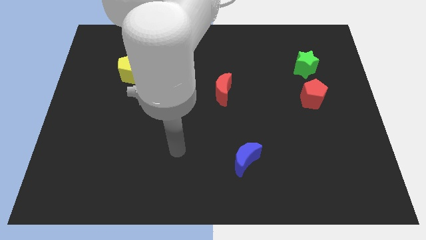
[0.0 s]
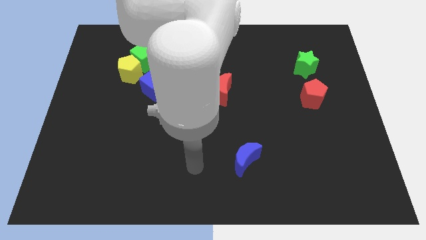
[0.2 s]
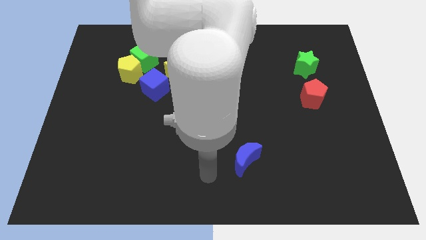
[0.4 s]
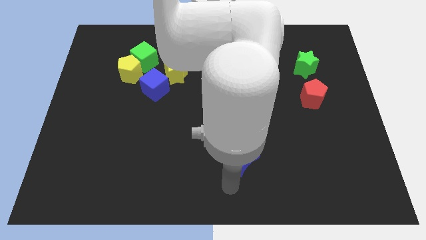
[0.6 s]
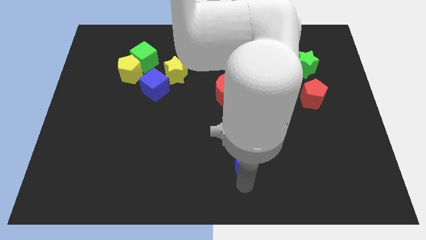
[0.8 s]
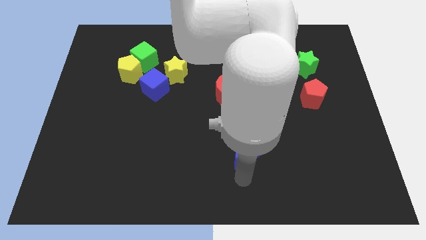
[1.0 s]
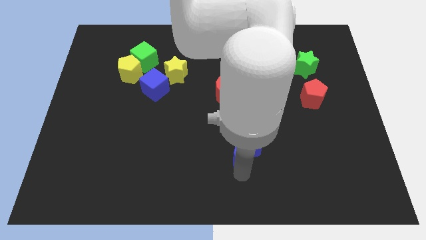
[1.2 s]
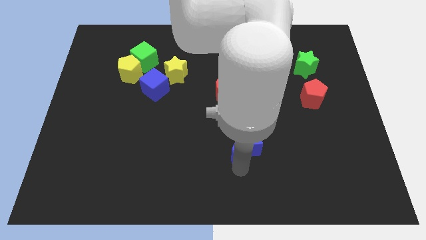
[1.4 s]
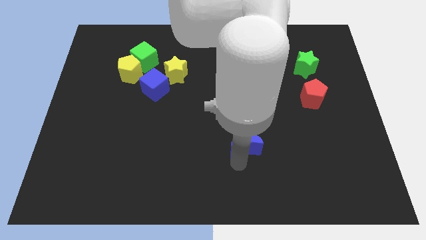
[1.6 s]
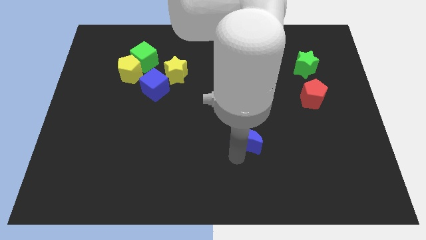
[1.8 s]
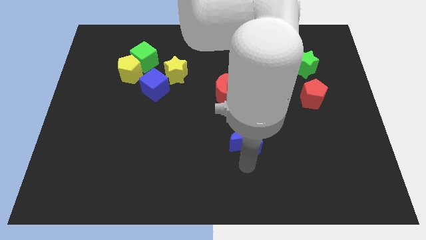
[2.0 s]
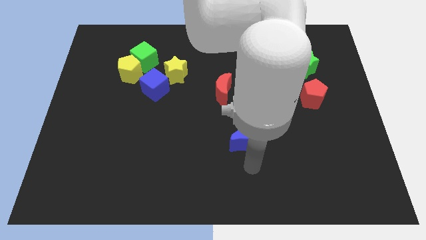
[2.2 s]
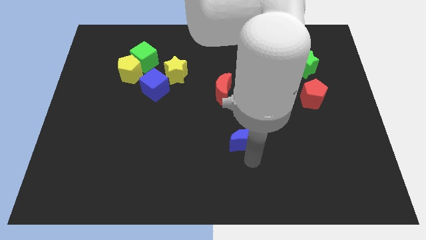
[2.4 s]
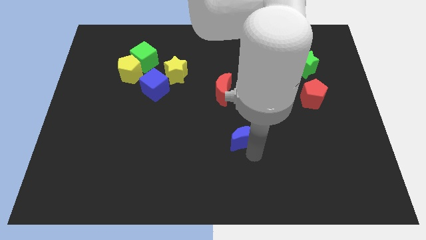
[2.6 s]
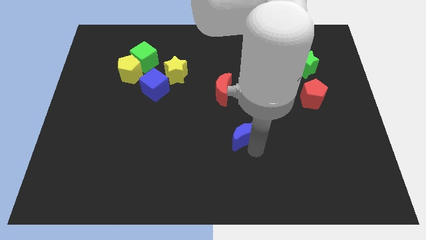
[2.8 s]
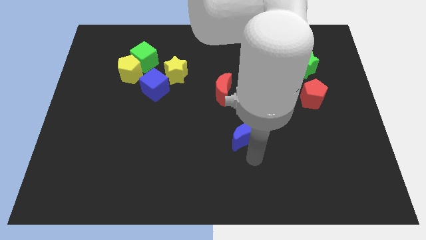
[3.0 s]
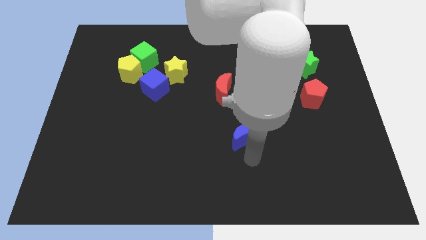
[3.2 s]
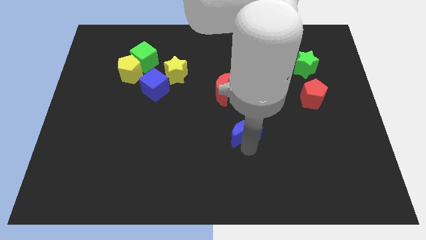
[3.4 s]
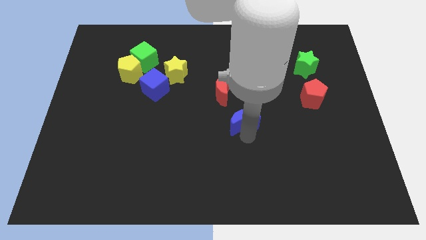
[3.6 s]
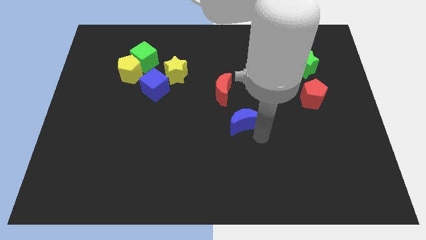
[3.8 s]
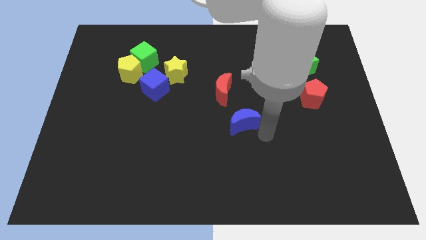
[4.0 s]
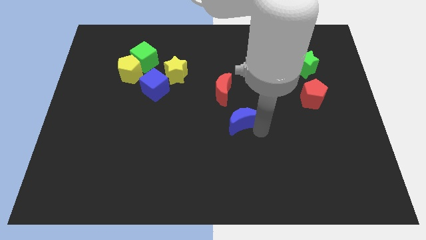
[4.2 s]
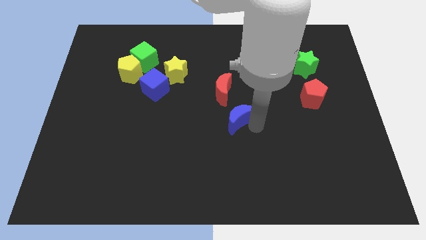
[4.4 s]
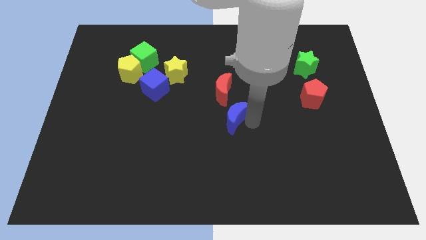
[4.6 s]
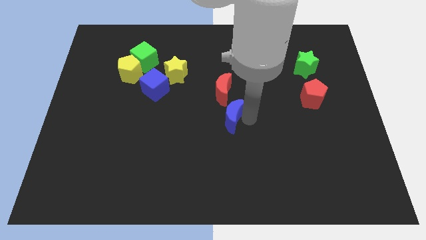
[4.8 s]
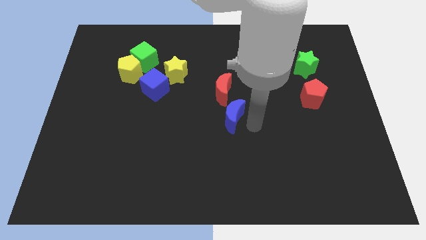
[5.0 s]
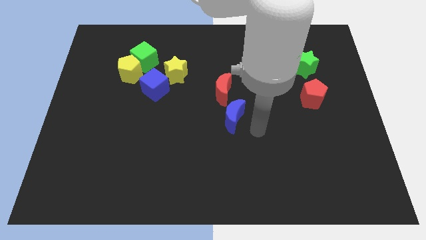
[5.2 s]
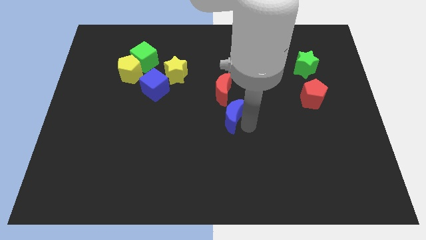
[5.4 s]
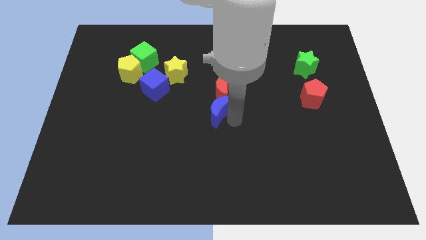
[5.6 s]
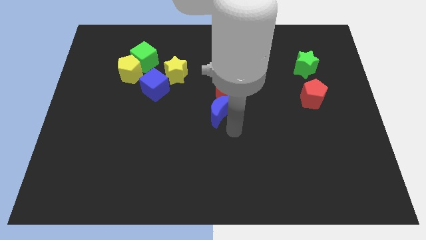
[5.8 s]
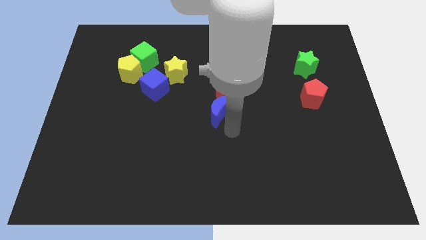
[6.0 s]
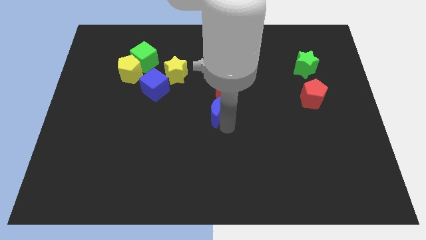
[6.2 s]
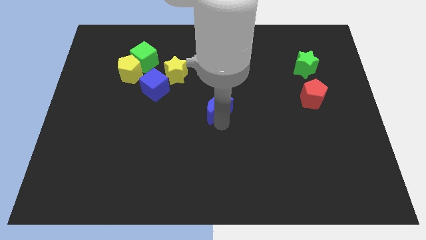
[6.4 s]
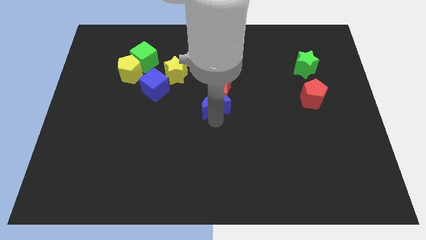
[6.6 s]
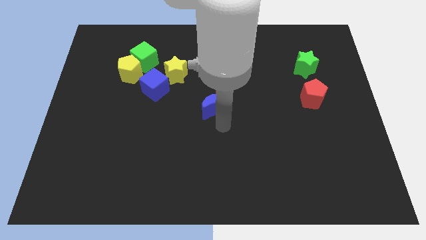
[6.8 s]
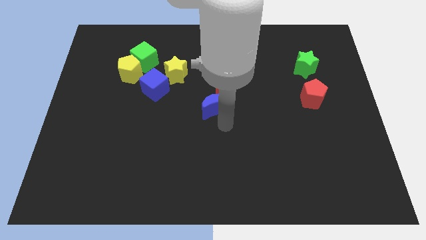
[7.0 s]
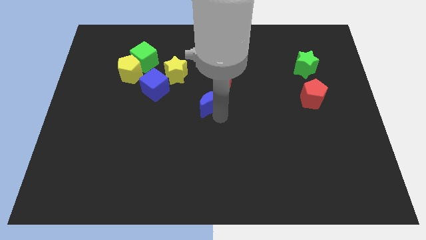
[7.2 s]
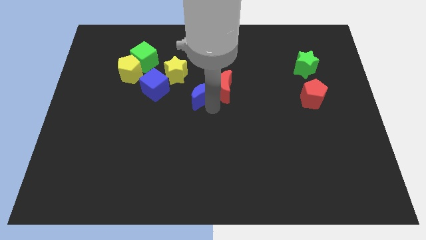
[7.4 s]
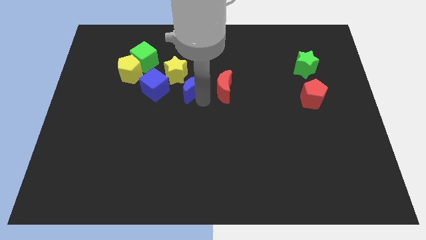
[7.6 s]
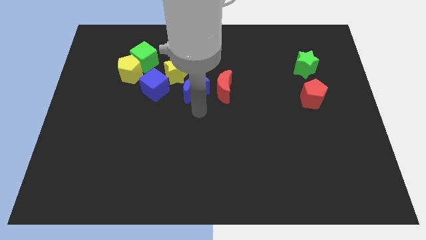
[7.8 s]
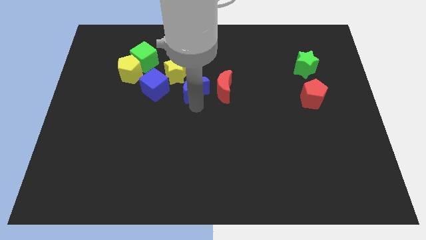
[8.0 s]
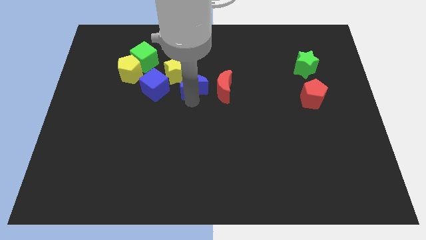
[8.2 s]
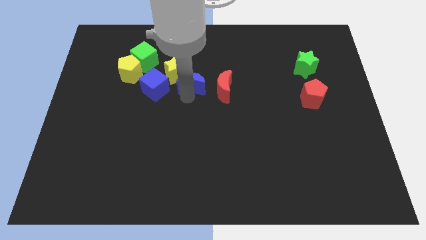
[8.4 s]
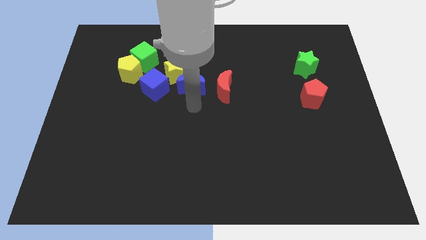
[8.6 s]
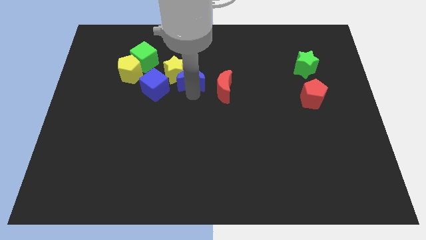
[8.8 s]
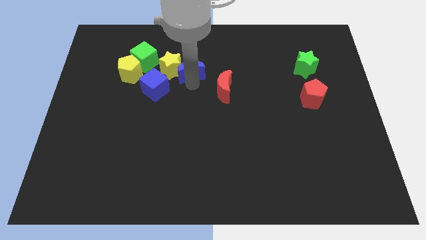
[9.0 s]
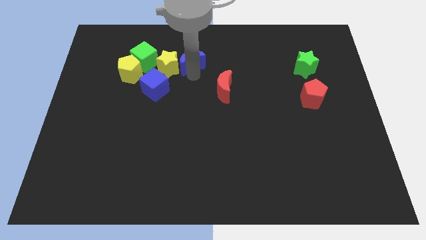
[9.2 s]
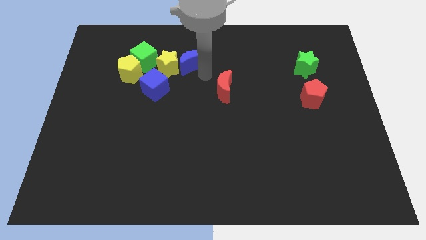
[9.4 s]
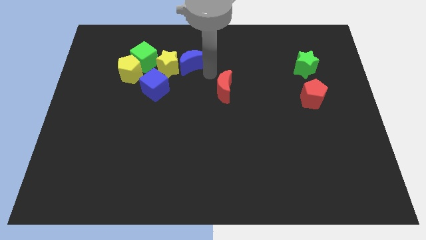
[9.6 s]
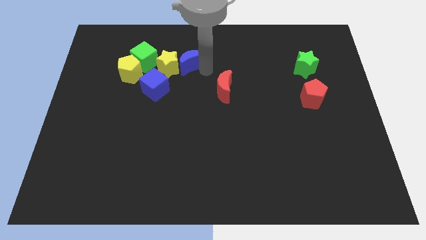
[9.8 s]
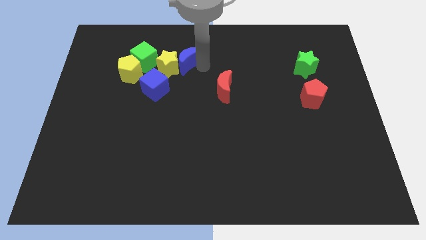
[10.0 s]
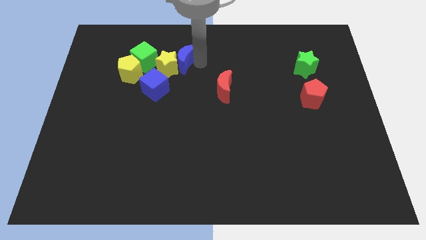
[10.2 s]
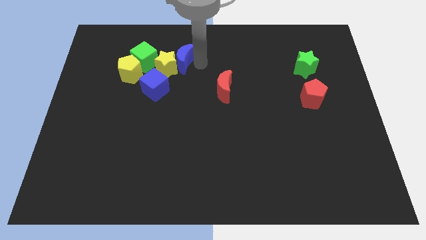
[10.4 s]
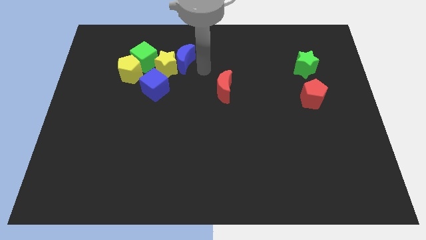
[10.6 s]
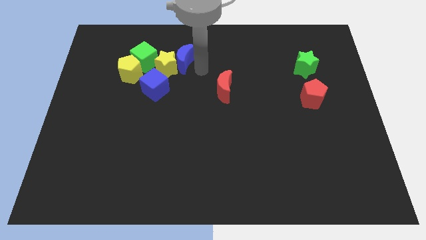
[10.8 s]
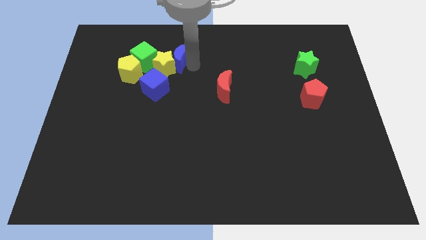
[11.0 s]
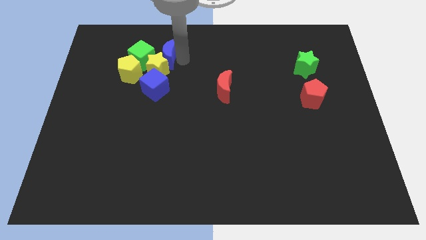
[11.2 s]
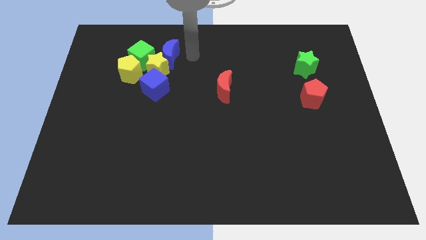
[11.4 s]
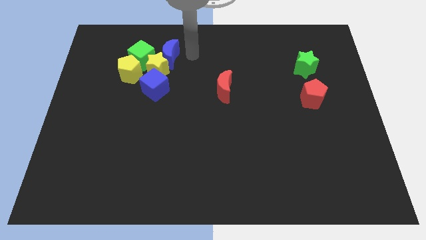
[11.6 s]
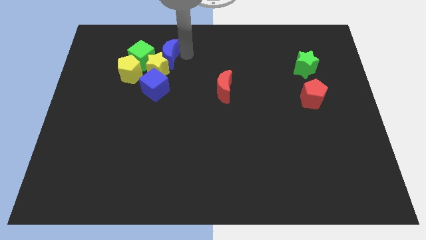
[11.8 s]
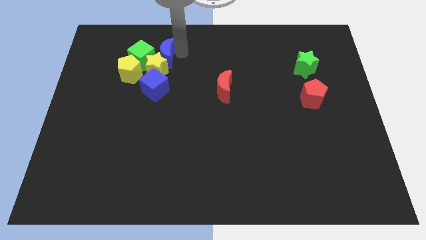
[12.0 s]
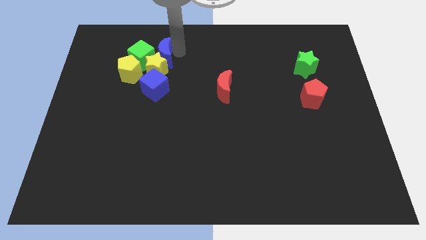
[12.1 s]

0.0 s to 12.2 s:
move the blue moon next to the green cube

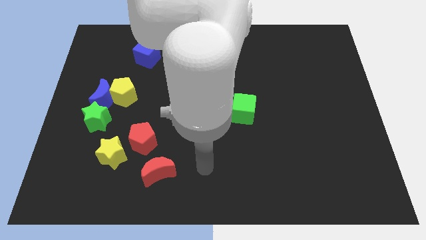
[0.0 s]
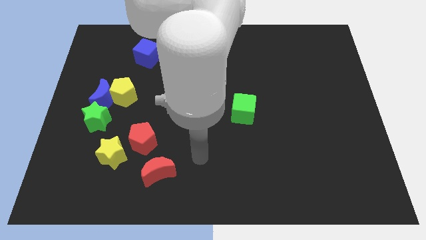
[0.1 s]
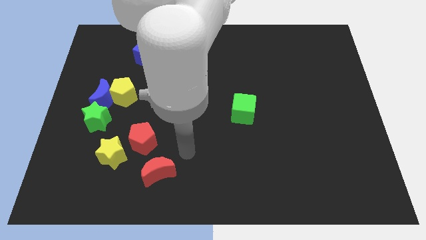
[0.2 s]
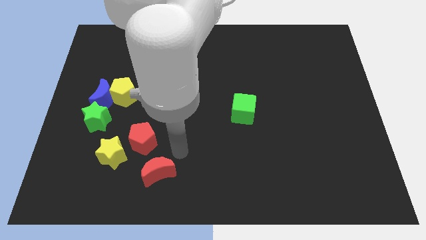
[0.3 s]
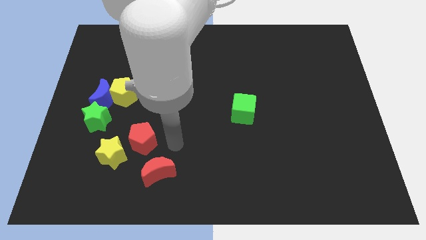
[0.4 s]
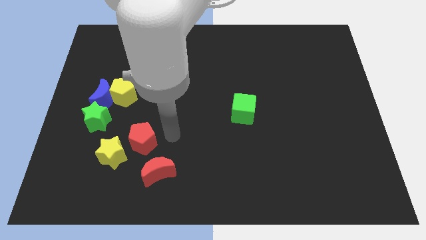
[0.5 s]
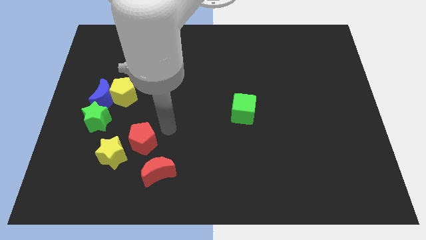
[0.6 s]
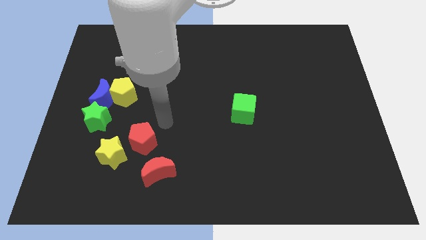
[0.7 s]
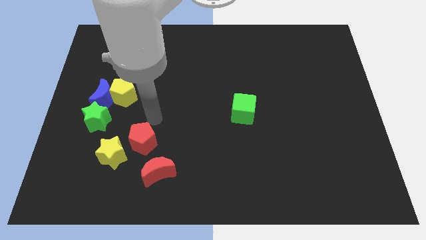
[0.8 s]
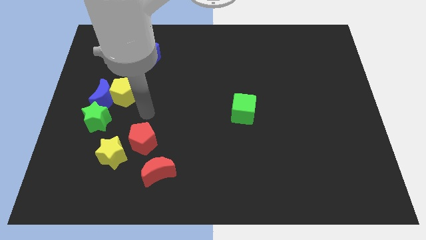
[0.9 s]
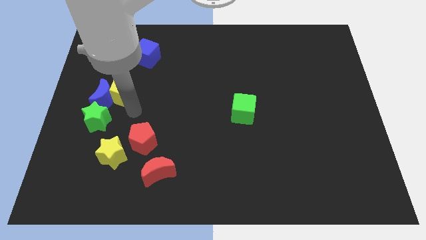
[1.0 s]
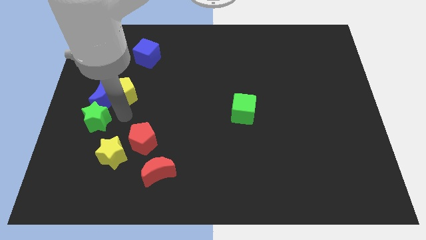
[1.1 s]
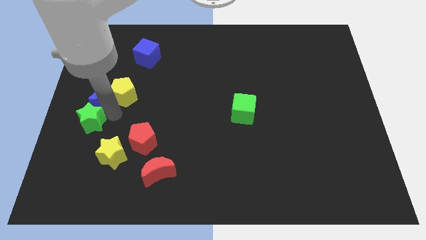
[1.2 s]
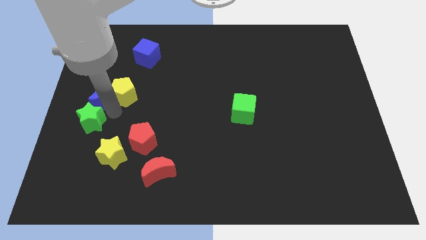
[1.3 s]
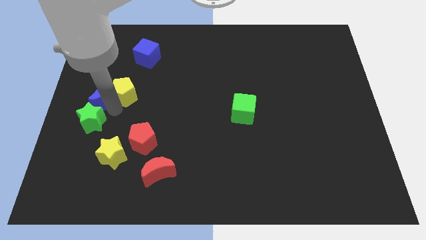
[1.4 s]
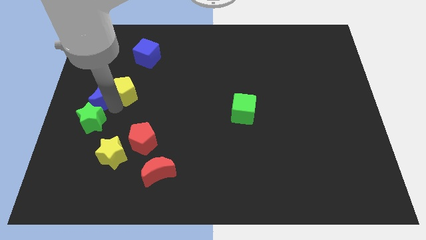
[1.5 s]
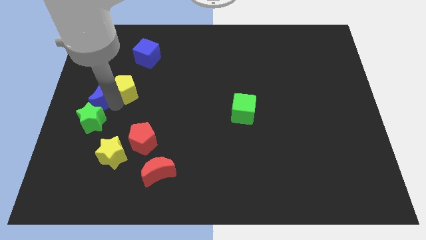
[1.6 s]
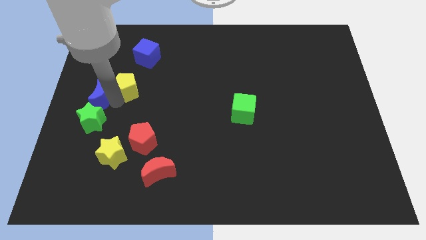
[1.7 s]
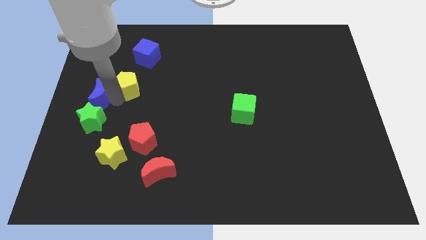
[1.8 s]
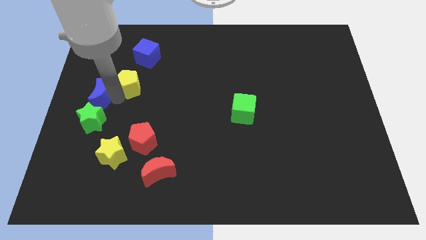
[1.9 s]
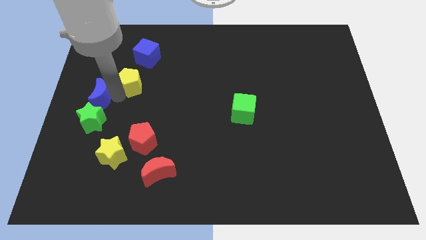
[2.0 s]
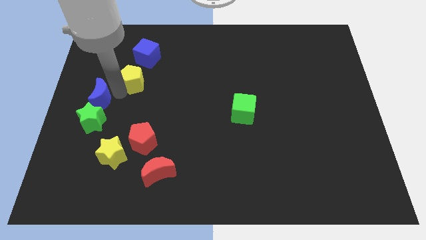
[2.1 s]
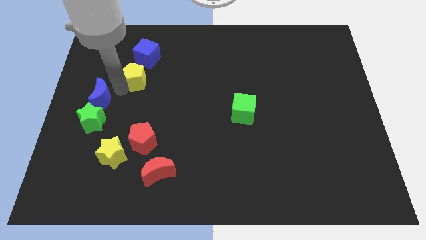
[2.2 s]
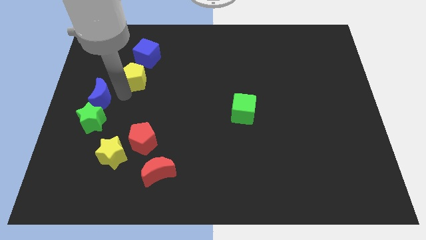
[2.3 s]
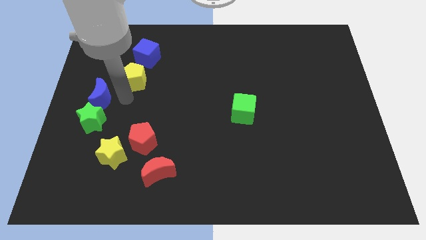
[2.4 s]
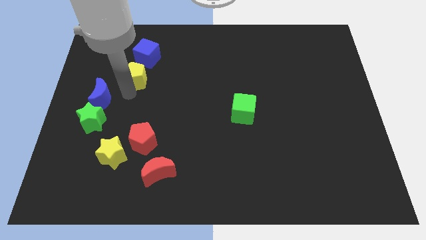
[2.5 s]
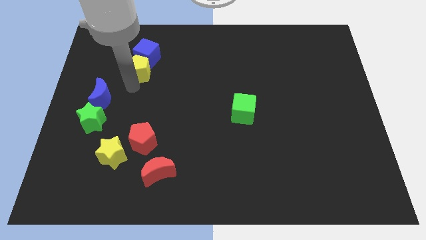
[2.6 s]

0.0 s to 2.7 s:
put the yellow pentagon next to the blue cube
